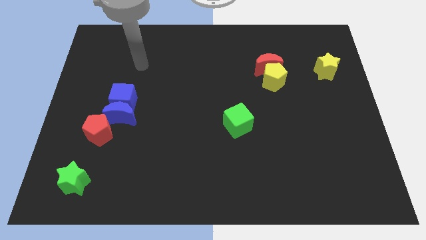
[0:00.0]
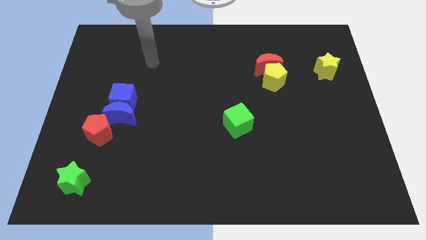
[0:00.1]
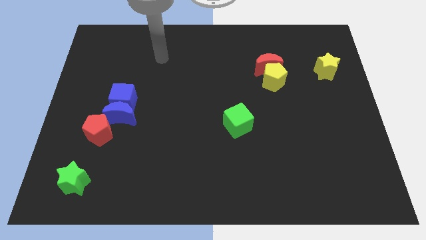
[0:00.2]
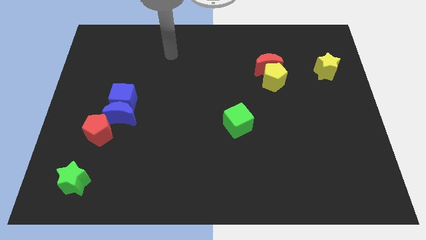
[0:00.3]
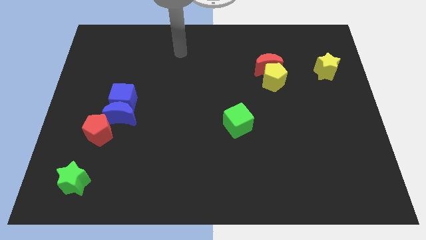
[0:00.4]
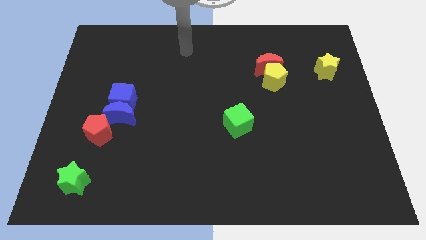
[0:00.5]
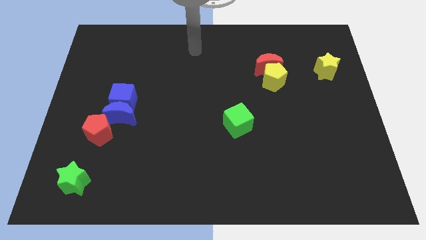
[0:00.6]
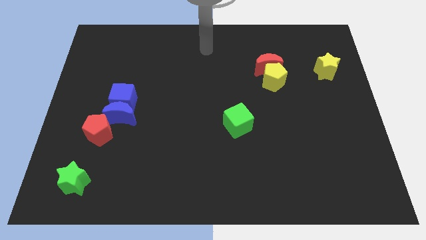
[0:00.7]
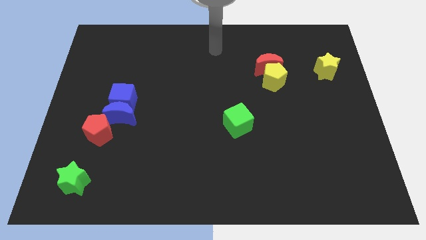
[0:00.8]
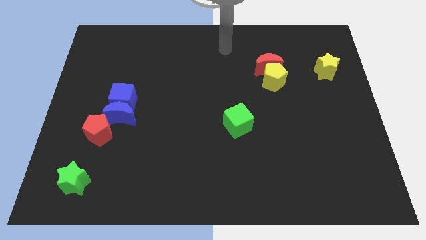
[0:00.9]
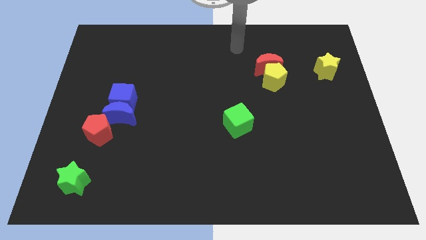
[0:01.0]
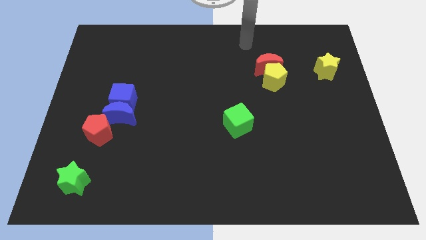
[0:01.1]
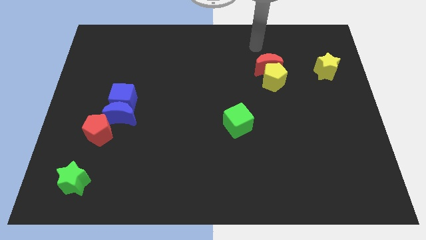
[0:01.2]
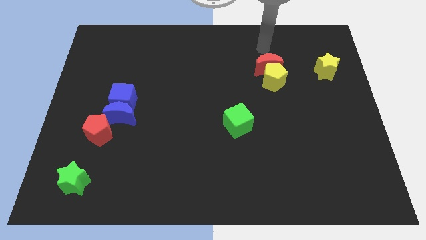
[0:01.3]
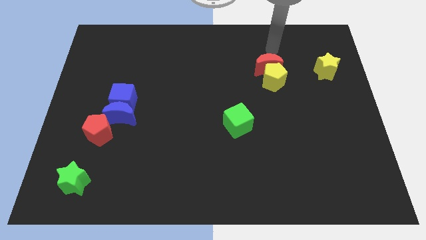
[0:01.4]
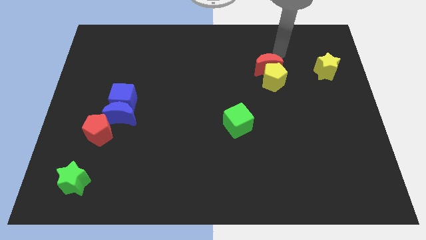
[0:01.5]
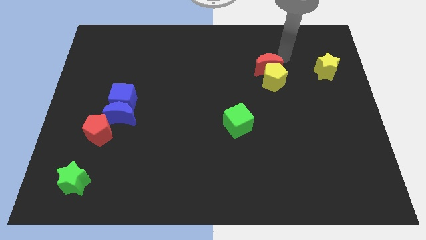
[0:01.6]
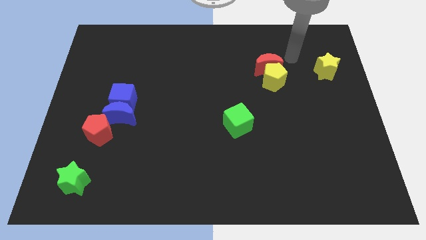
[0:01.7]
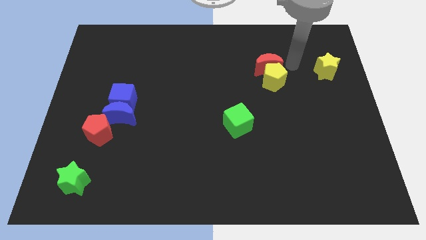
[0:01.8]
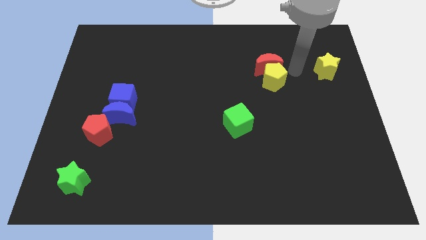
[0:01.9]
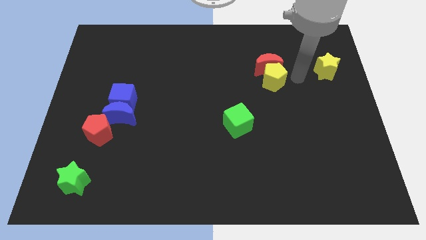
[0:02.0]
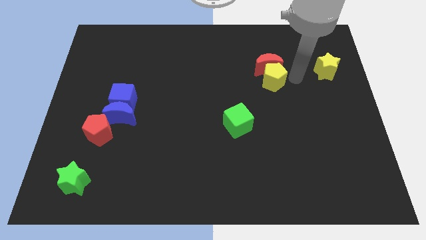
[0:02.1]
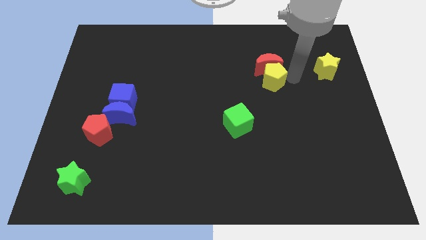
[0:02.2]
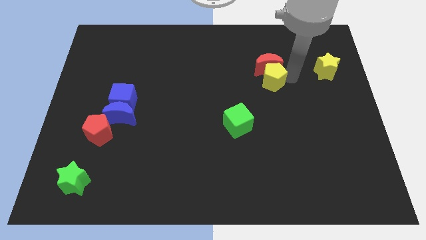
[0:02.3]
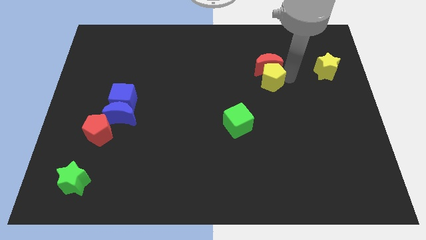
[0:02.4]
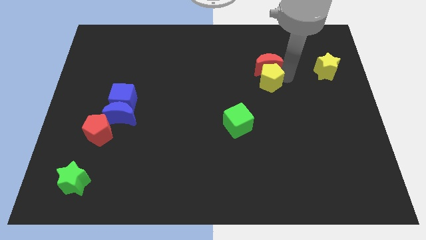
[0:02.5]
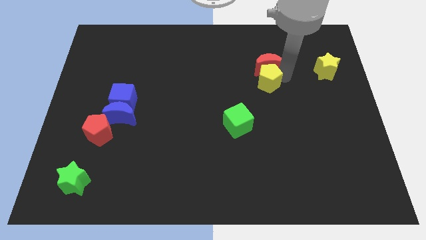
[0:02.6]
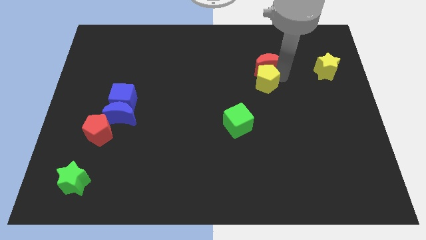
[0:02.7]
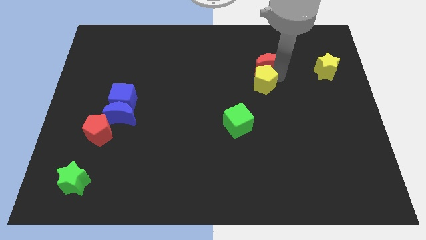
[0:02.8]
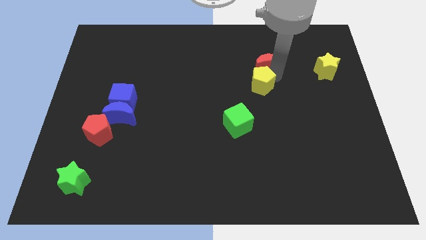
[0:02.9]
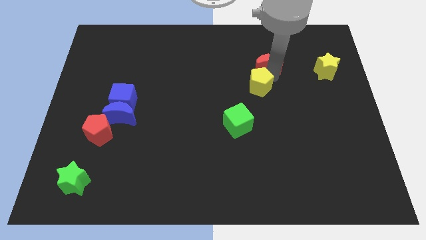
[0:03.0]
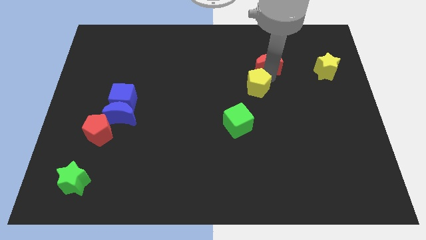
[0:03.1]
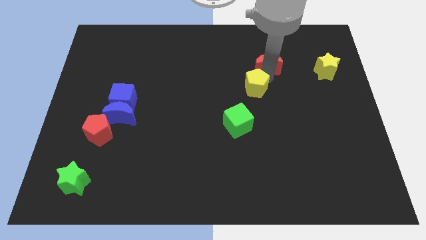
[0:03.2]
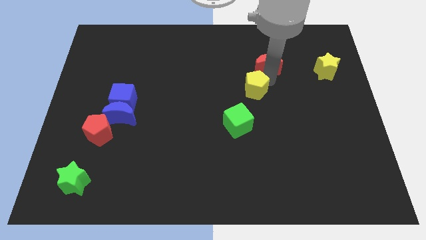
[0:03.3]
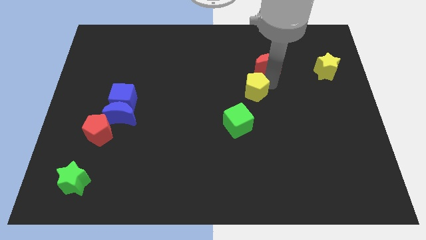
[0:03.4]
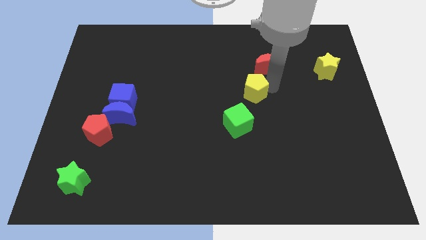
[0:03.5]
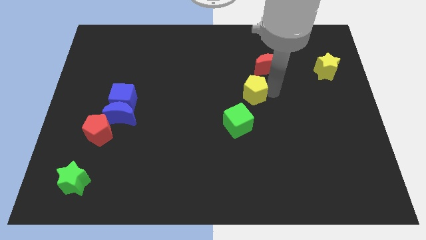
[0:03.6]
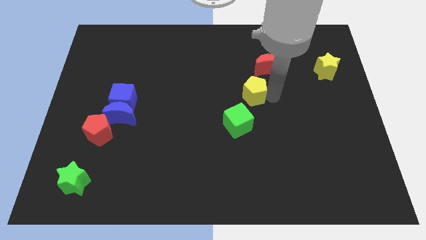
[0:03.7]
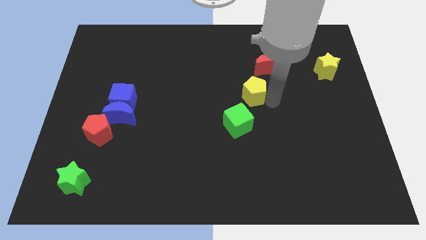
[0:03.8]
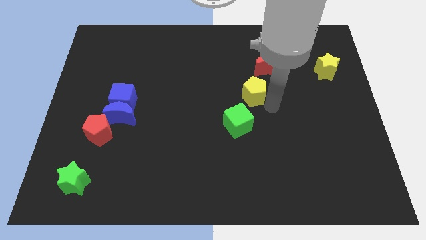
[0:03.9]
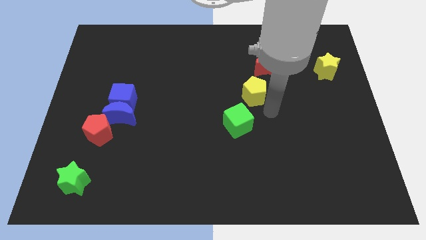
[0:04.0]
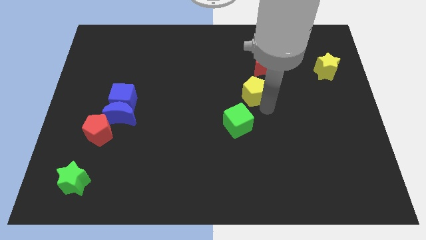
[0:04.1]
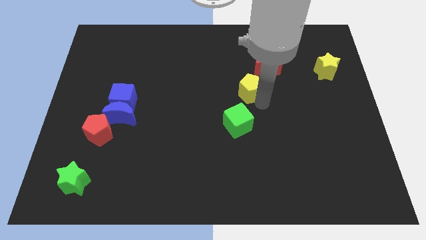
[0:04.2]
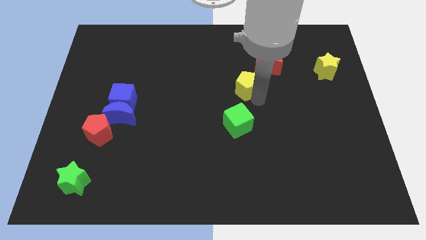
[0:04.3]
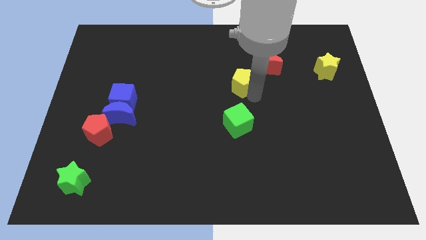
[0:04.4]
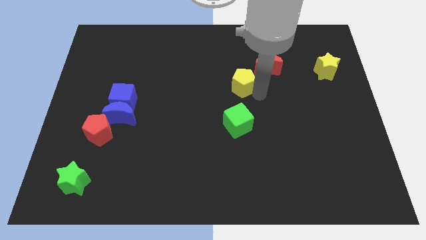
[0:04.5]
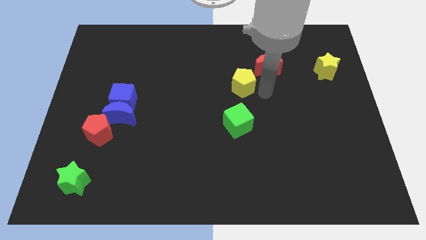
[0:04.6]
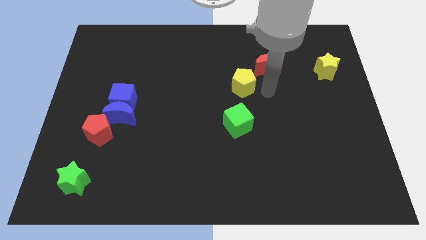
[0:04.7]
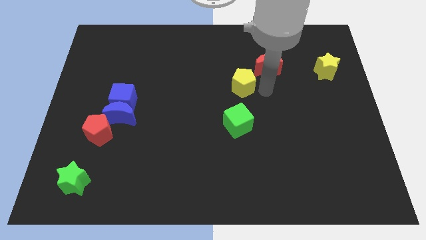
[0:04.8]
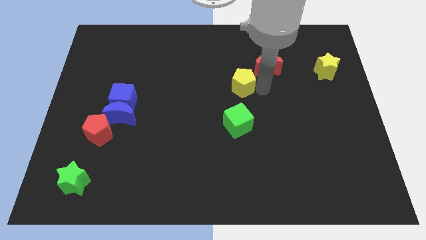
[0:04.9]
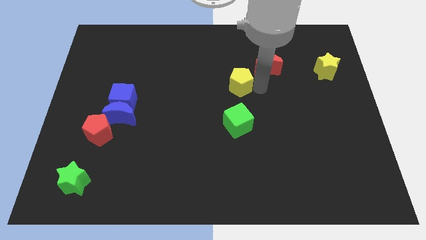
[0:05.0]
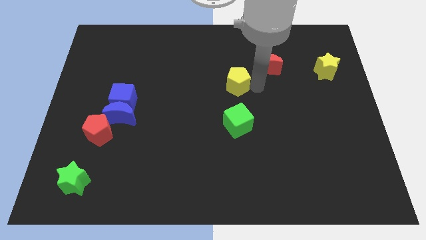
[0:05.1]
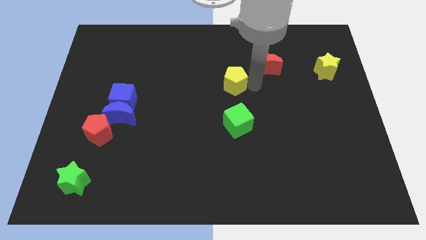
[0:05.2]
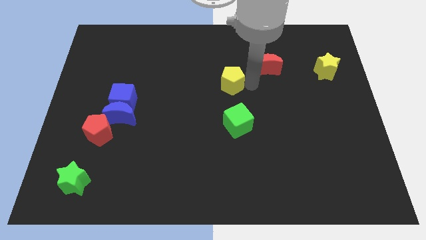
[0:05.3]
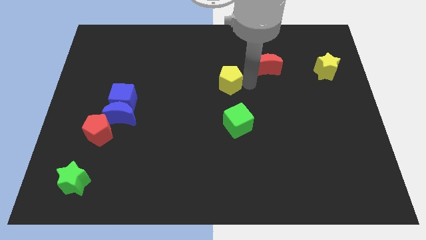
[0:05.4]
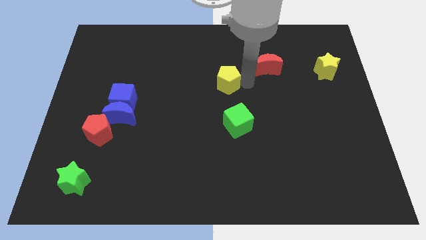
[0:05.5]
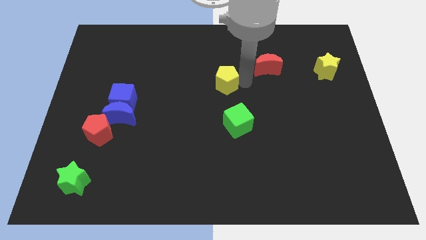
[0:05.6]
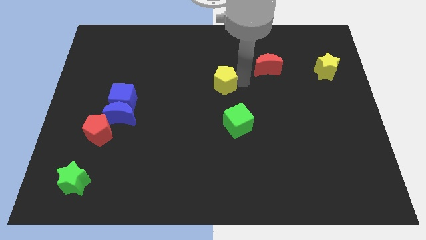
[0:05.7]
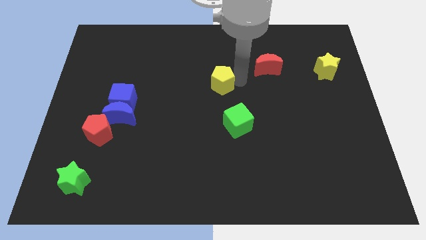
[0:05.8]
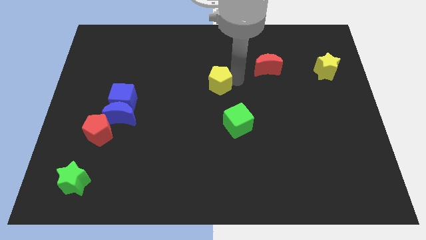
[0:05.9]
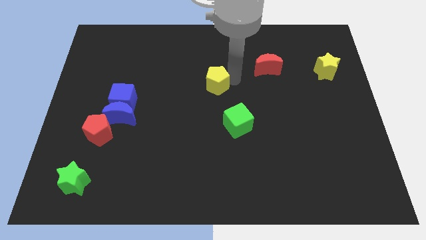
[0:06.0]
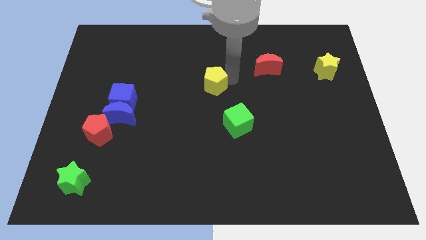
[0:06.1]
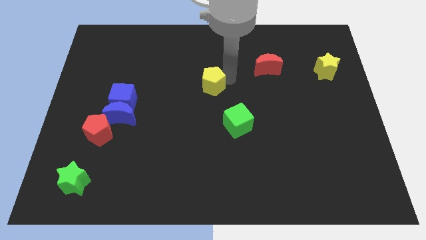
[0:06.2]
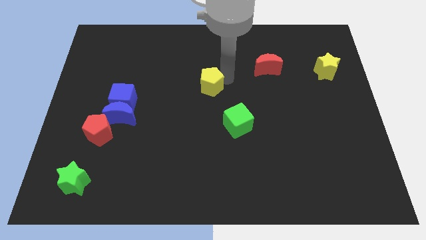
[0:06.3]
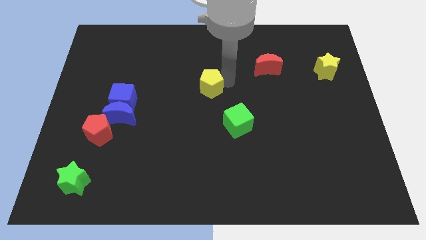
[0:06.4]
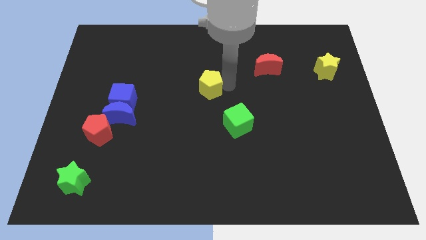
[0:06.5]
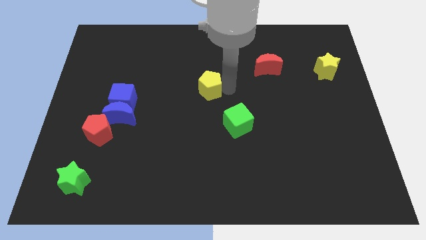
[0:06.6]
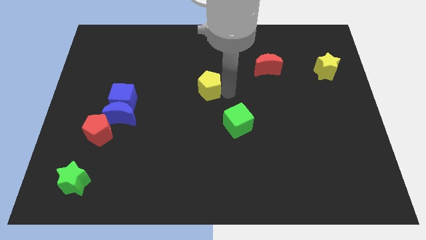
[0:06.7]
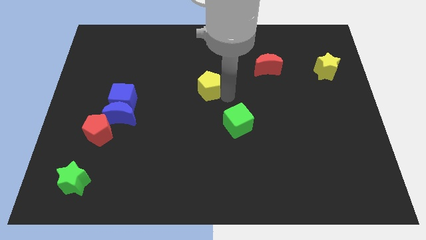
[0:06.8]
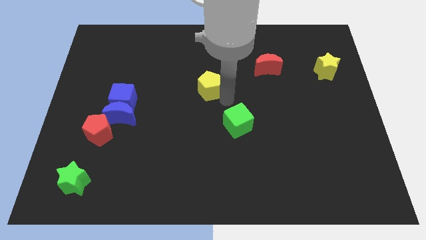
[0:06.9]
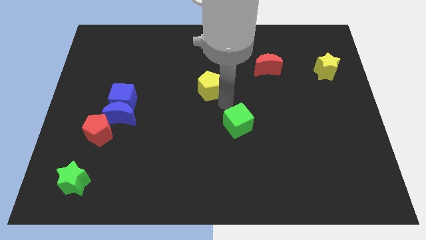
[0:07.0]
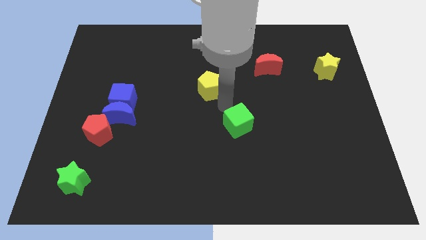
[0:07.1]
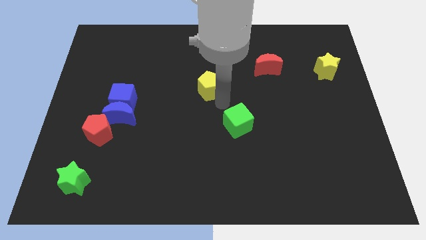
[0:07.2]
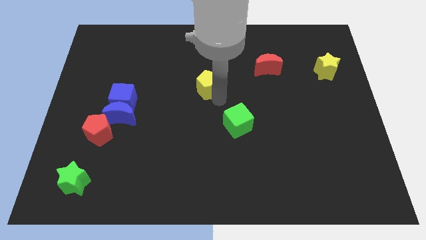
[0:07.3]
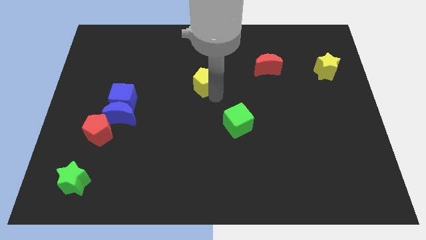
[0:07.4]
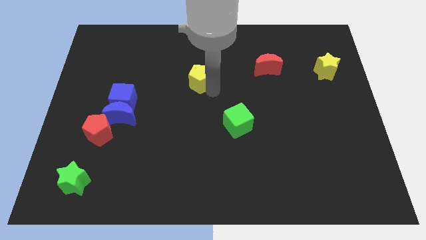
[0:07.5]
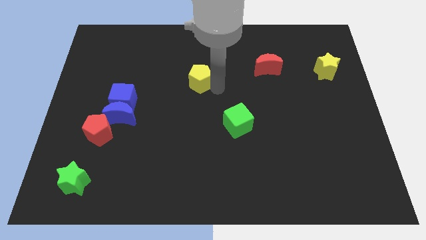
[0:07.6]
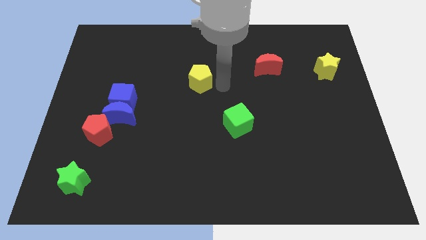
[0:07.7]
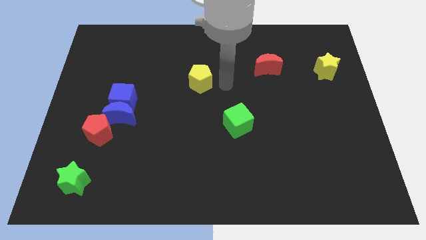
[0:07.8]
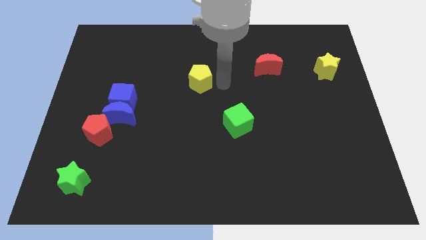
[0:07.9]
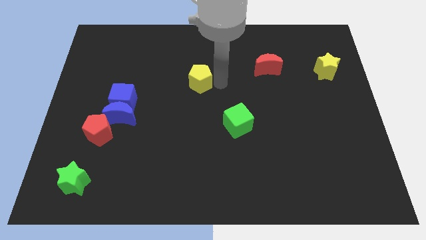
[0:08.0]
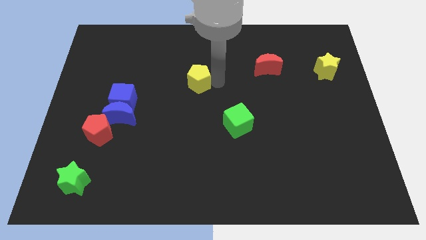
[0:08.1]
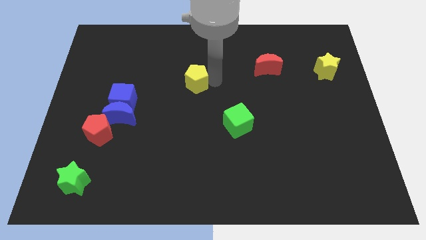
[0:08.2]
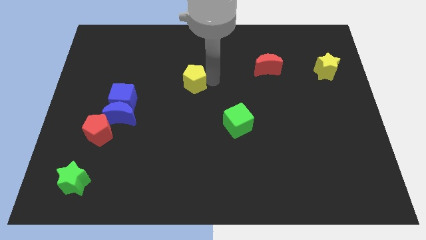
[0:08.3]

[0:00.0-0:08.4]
slide the yellow pentagon to the left
